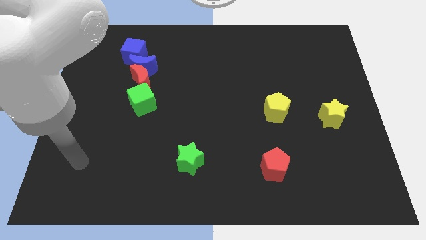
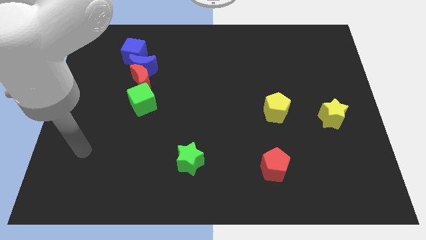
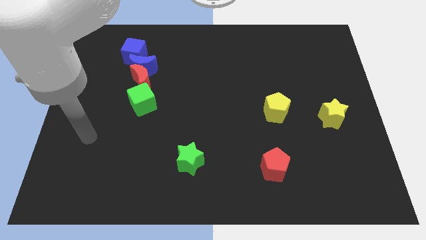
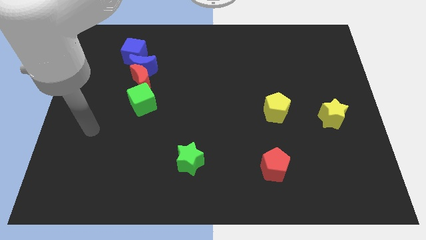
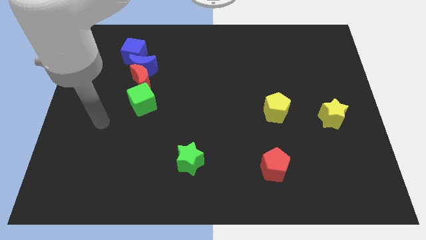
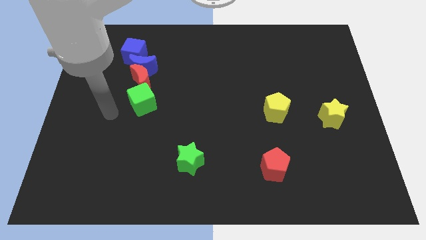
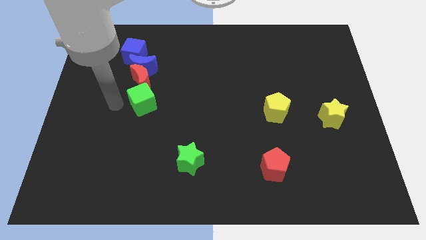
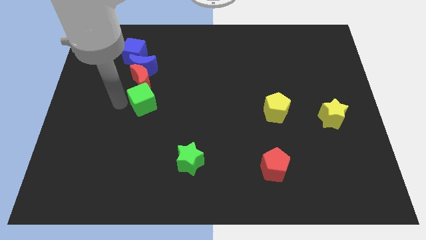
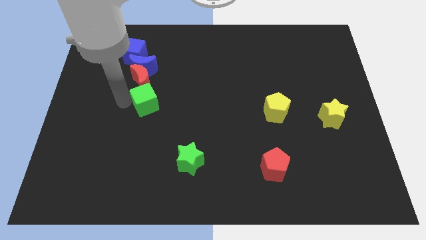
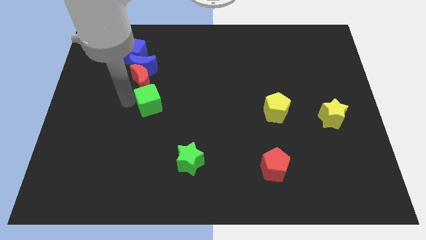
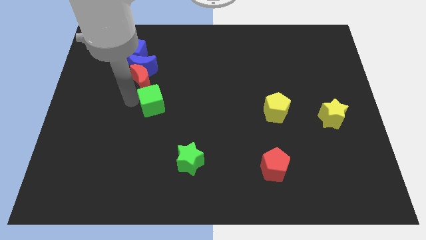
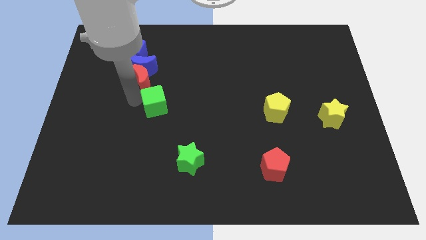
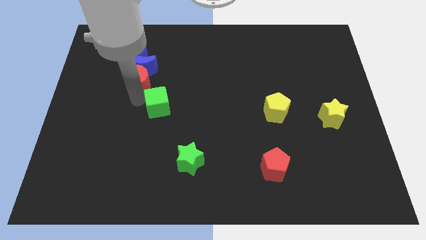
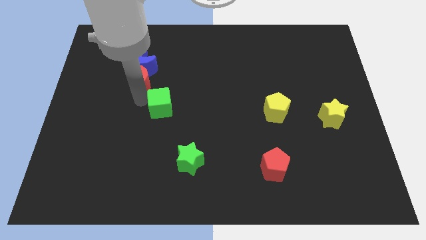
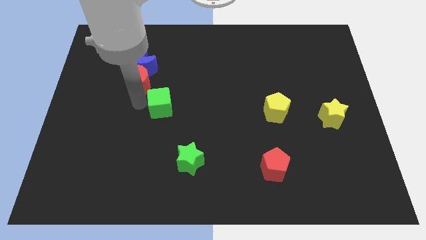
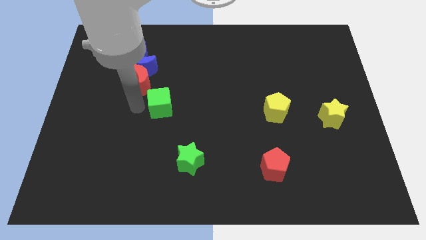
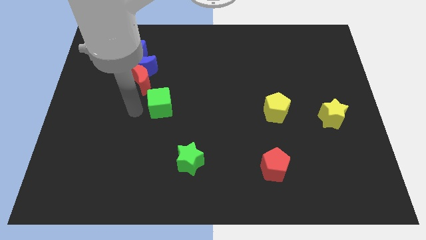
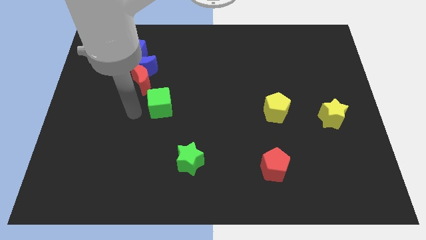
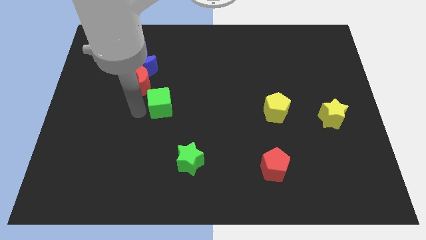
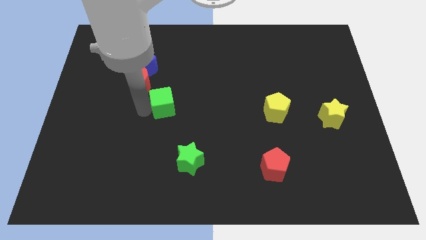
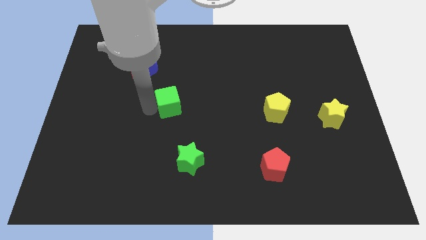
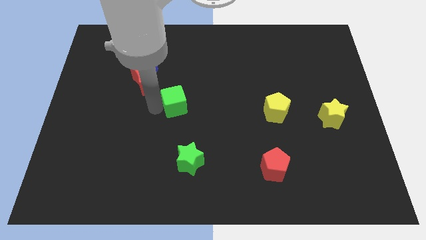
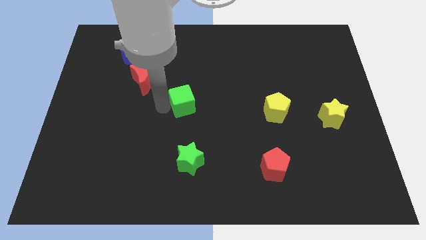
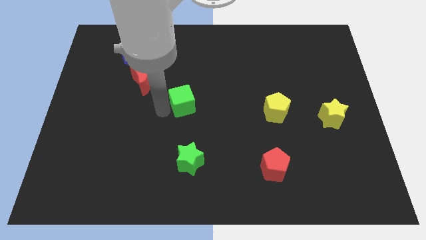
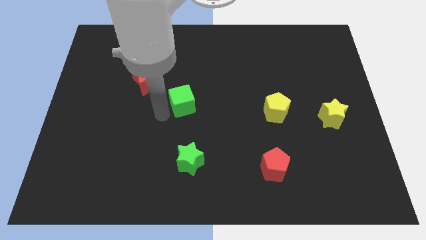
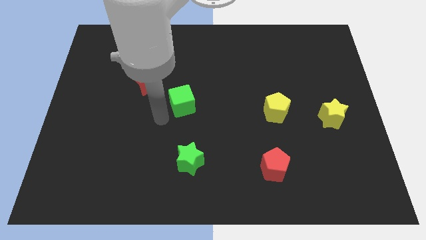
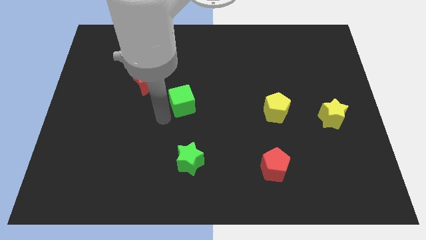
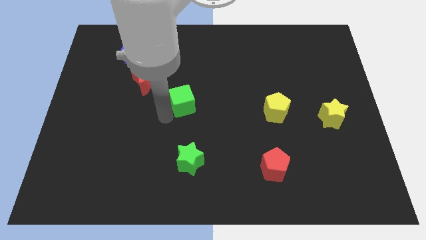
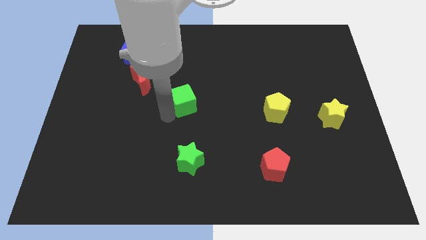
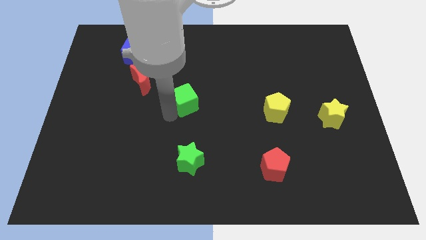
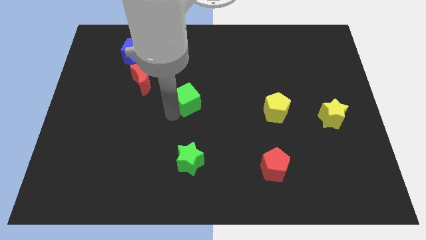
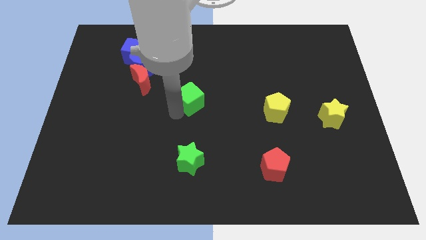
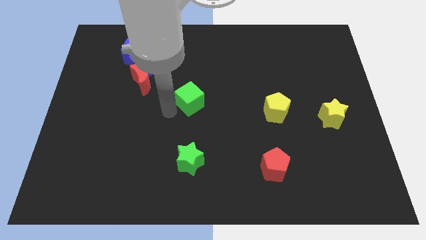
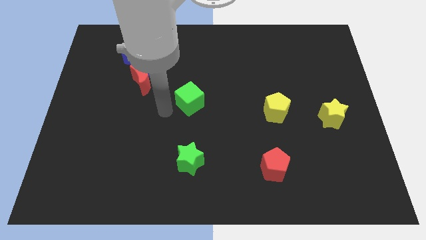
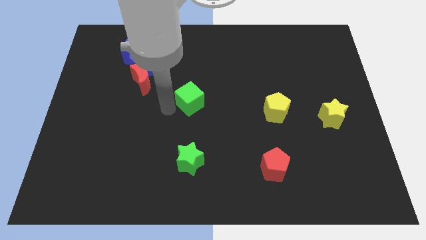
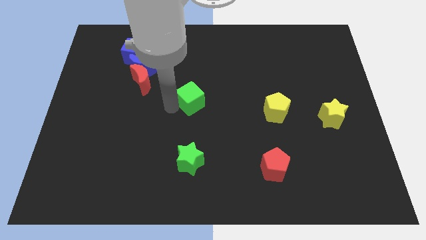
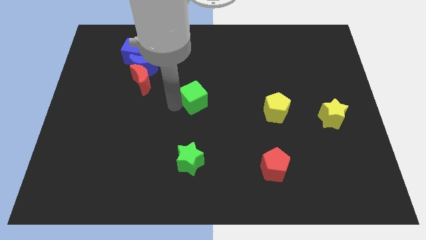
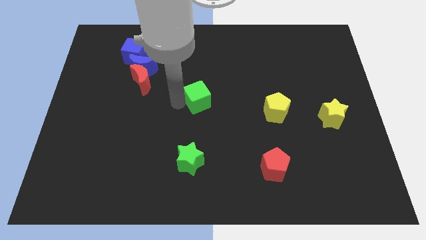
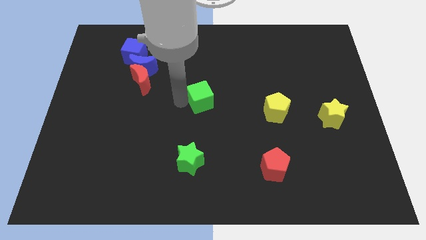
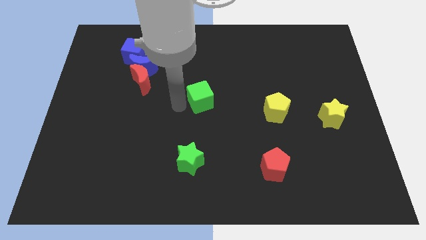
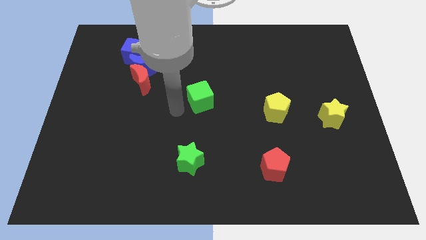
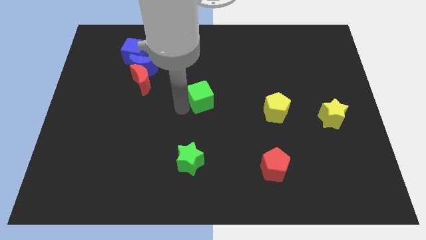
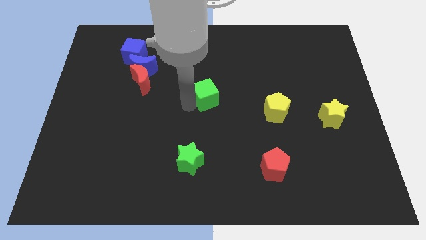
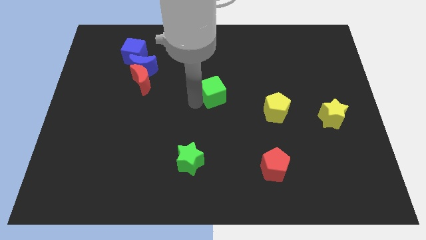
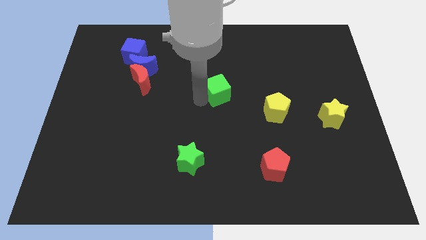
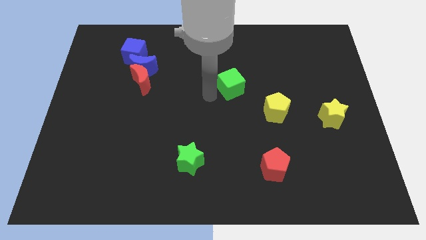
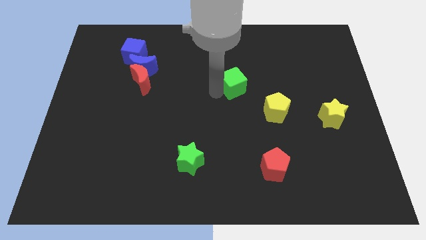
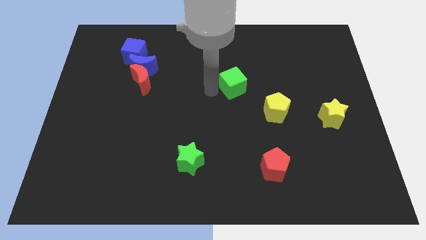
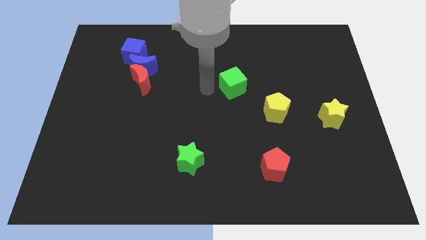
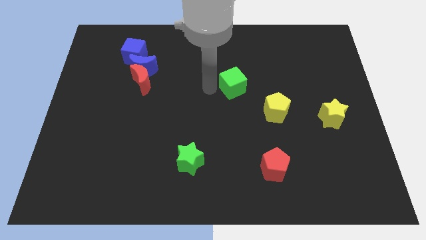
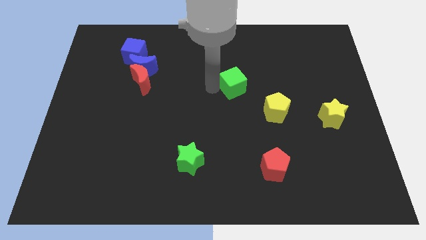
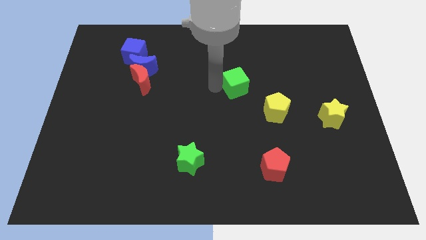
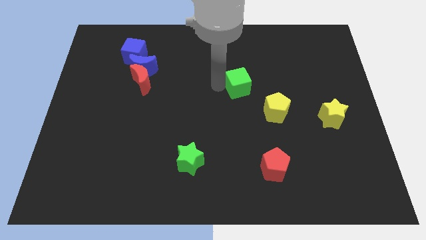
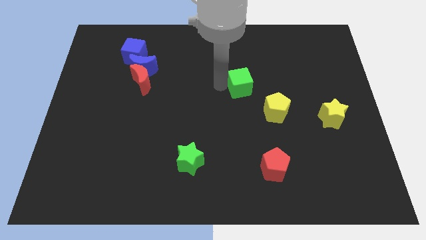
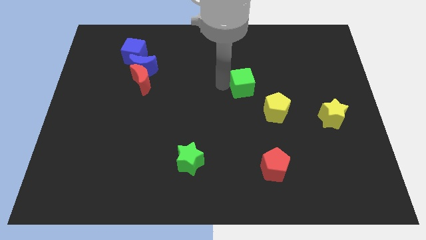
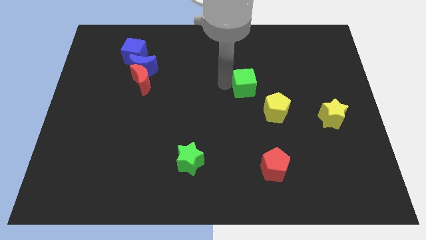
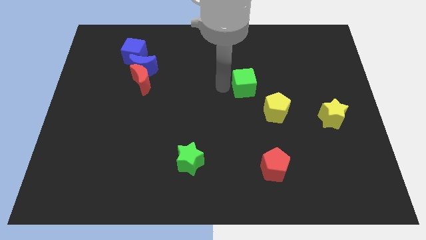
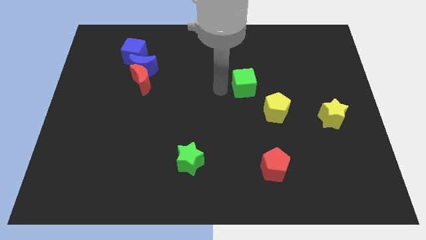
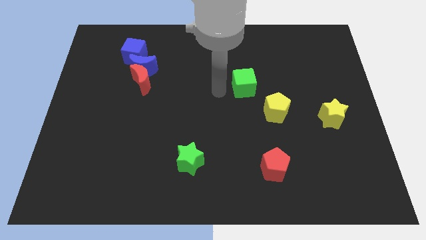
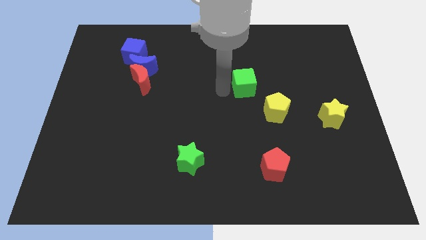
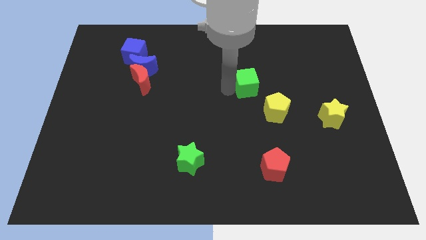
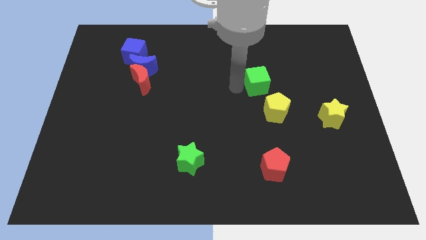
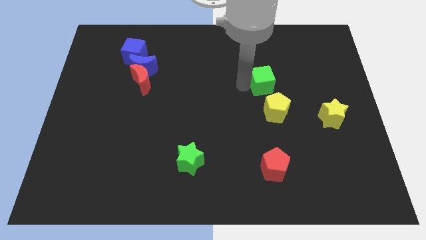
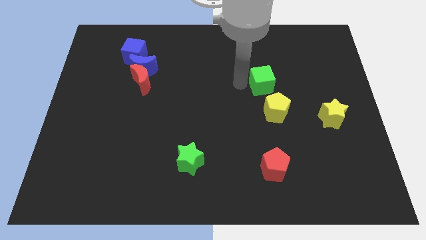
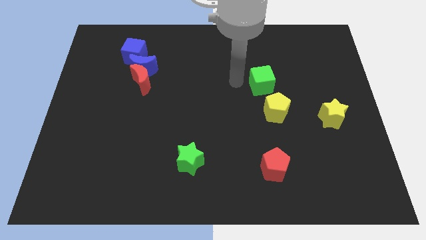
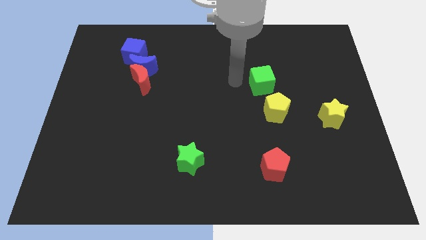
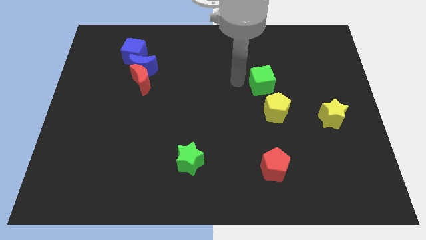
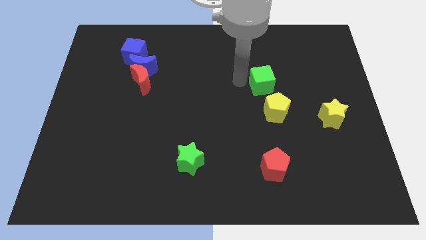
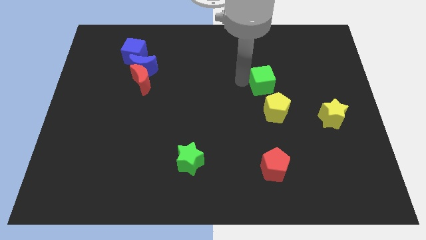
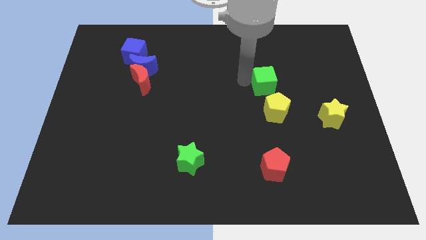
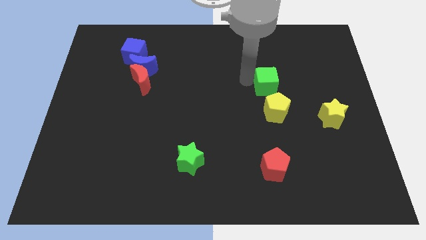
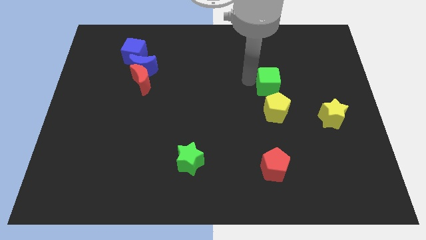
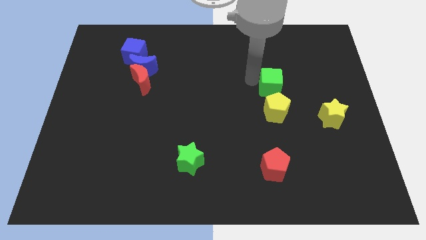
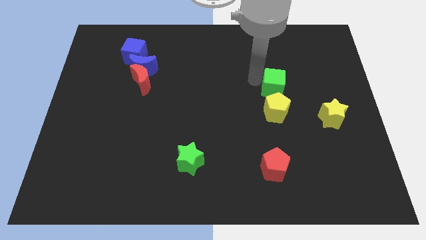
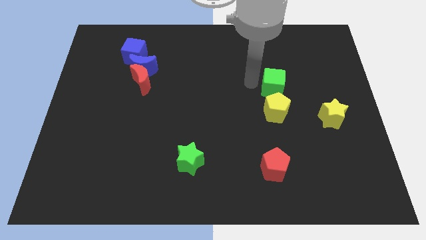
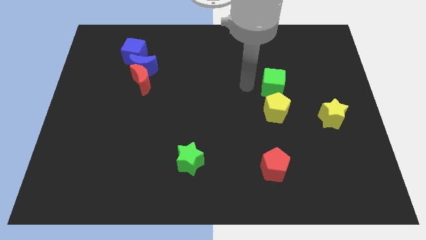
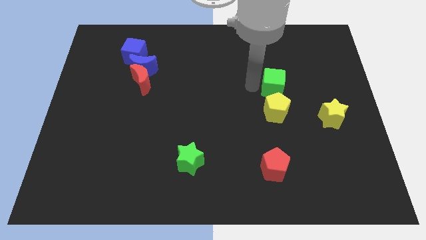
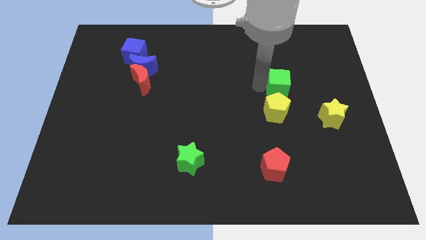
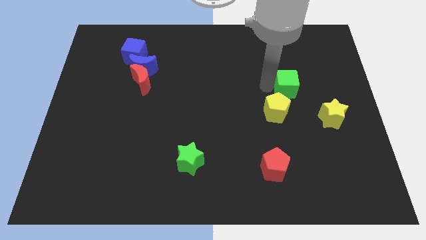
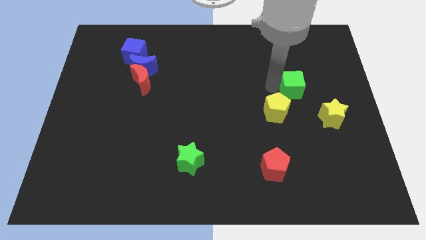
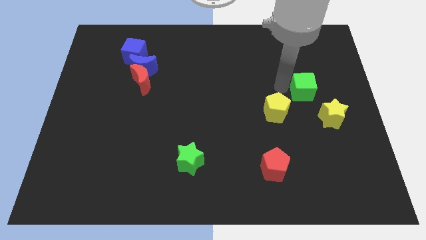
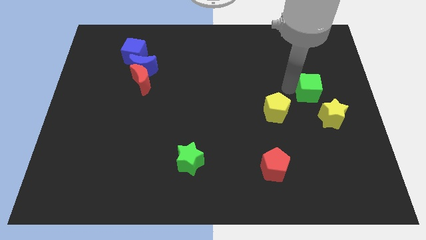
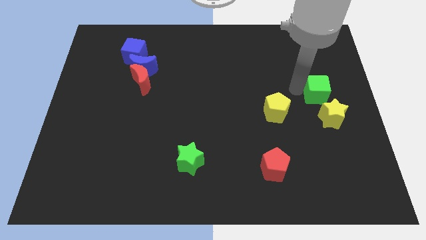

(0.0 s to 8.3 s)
put the green cube to the right side
